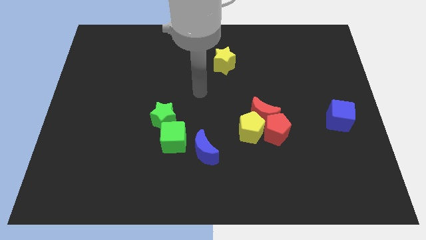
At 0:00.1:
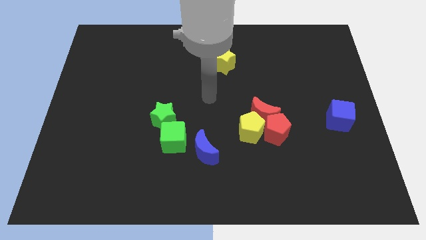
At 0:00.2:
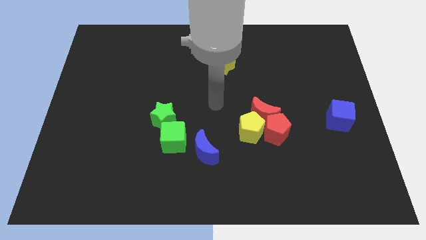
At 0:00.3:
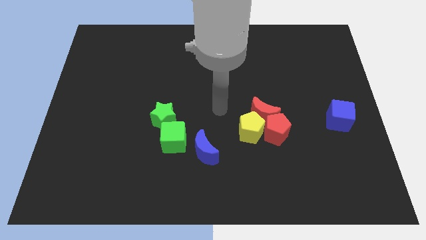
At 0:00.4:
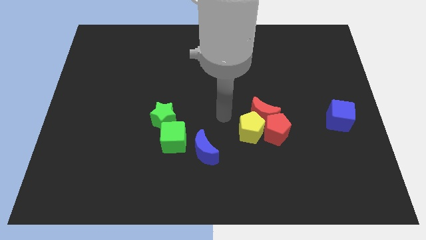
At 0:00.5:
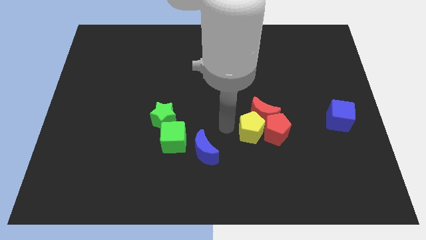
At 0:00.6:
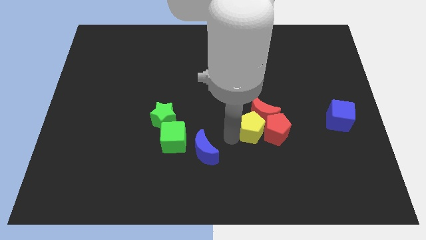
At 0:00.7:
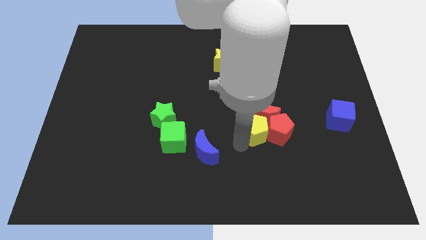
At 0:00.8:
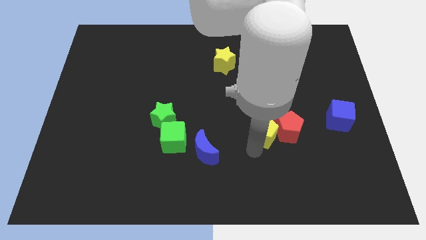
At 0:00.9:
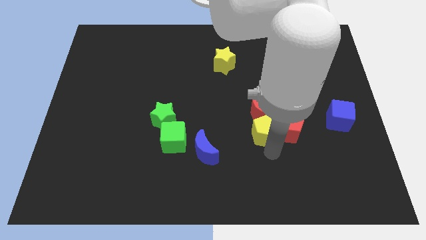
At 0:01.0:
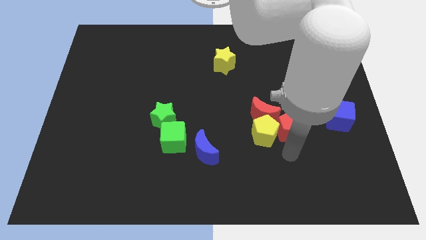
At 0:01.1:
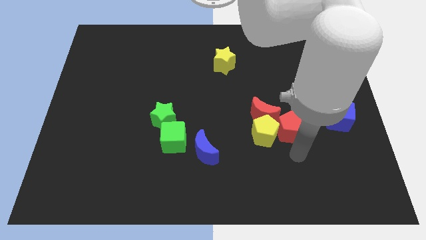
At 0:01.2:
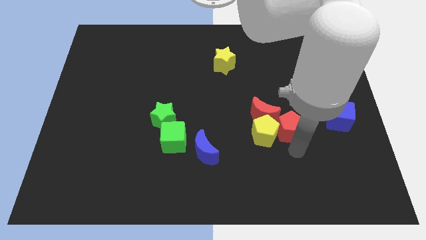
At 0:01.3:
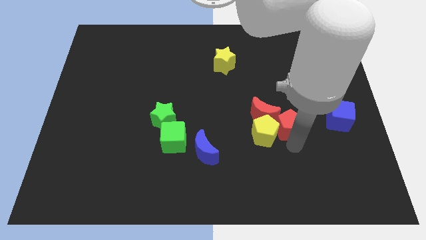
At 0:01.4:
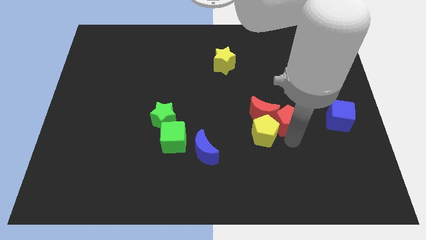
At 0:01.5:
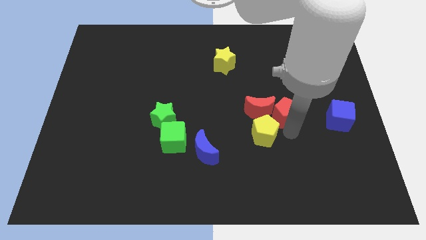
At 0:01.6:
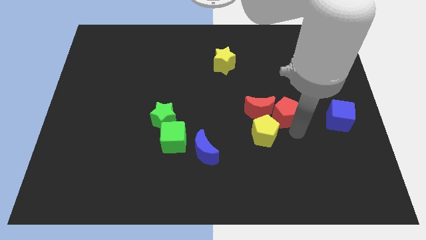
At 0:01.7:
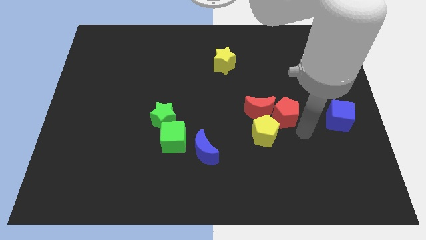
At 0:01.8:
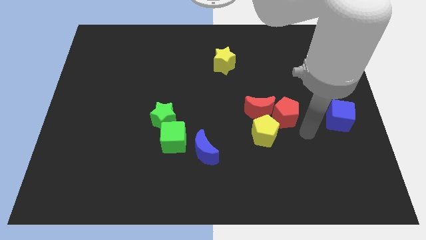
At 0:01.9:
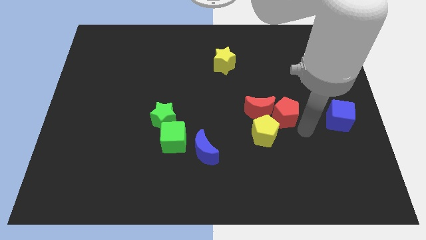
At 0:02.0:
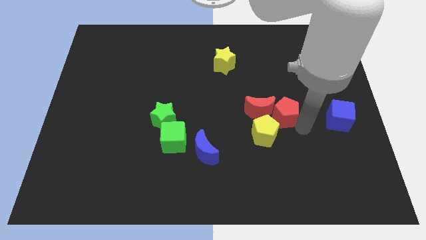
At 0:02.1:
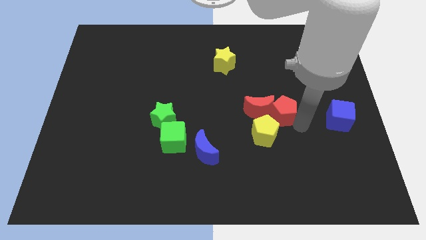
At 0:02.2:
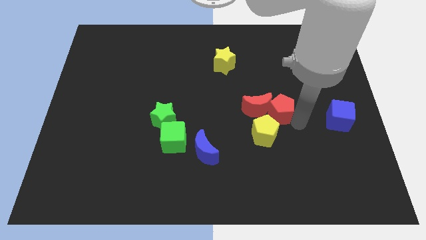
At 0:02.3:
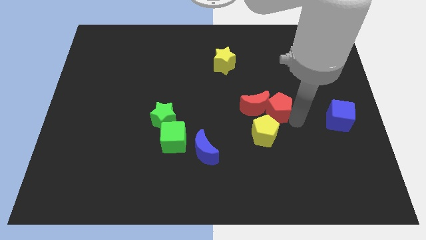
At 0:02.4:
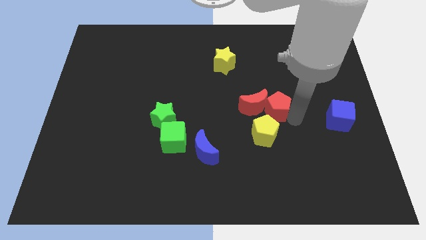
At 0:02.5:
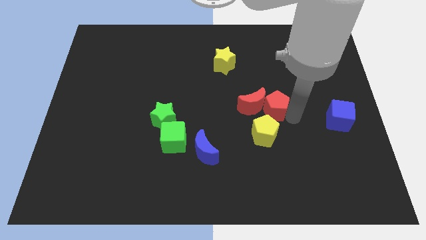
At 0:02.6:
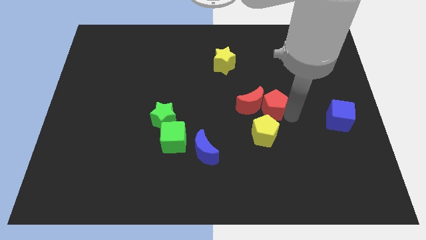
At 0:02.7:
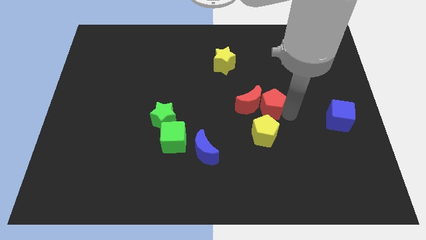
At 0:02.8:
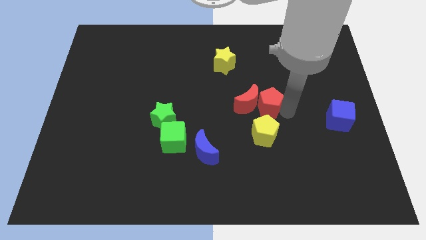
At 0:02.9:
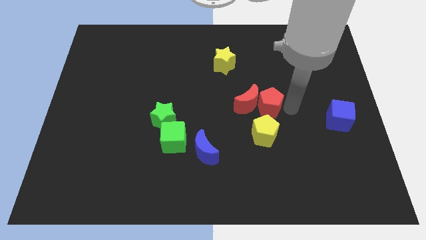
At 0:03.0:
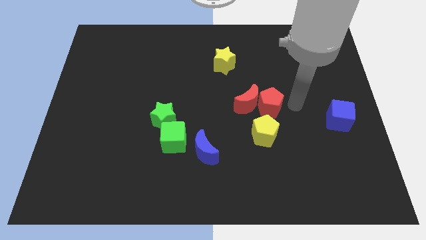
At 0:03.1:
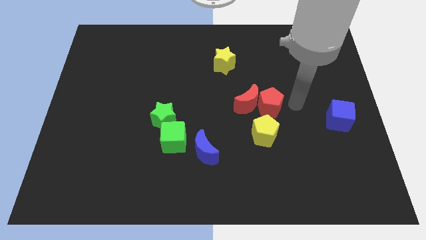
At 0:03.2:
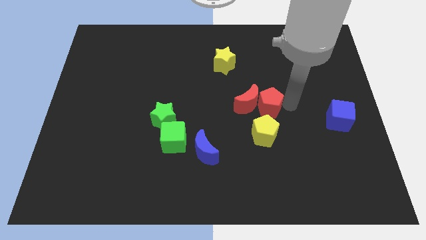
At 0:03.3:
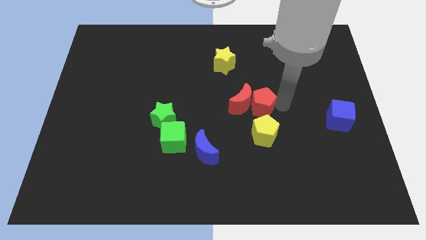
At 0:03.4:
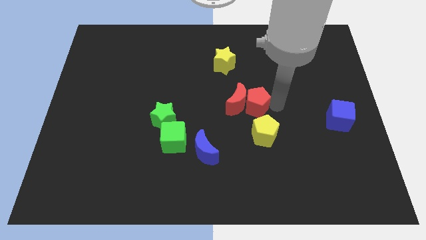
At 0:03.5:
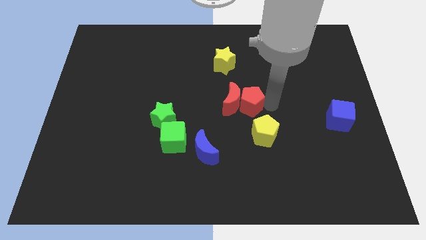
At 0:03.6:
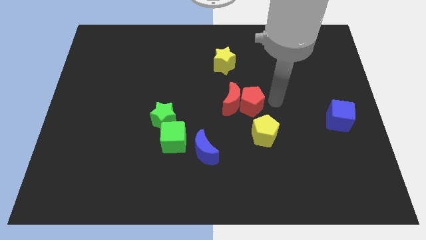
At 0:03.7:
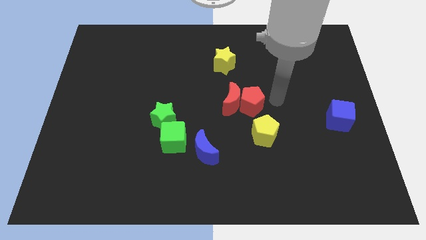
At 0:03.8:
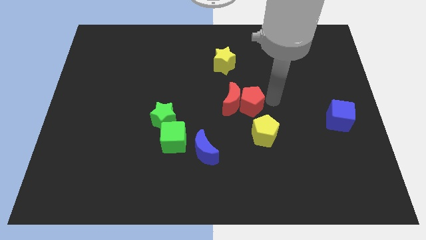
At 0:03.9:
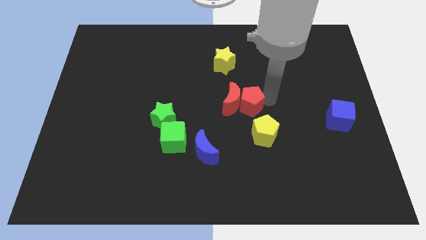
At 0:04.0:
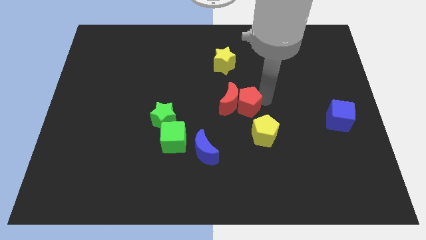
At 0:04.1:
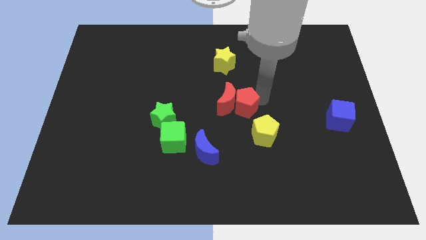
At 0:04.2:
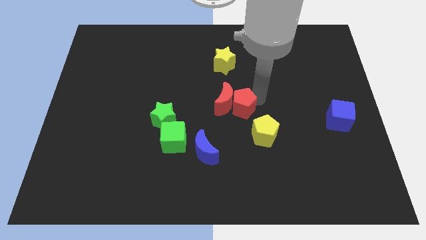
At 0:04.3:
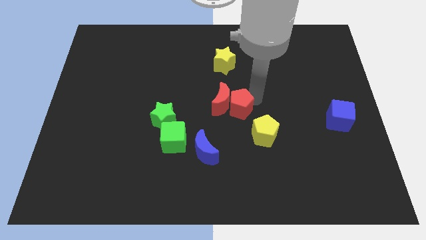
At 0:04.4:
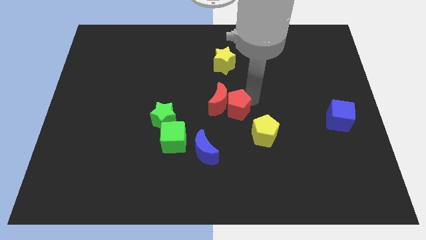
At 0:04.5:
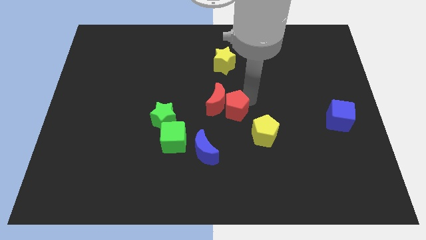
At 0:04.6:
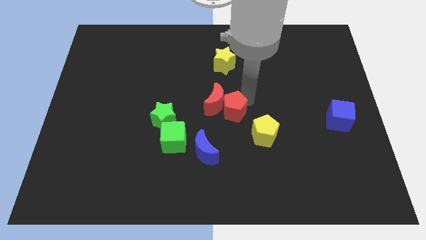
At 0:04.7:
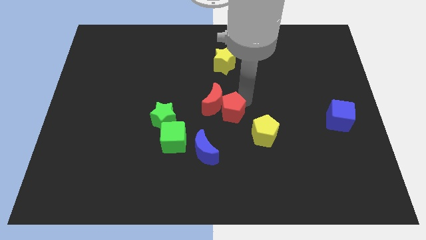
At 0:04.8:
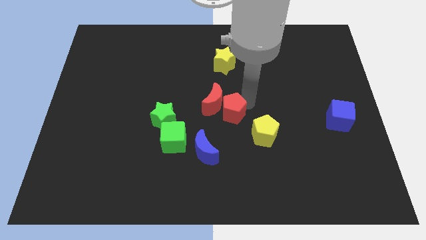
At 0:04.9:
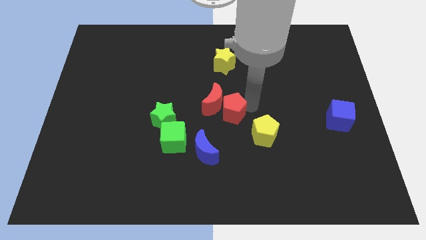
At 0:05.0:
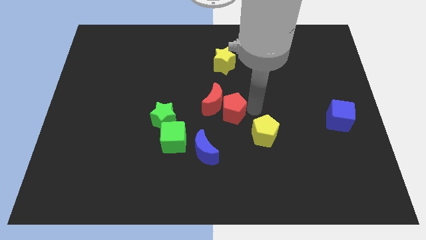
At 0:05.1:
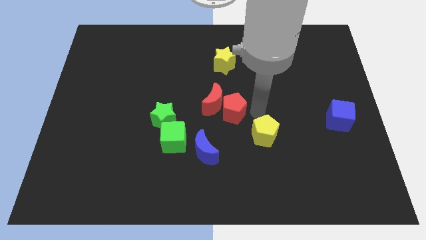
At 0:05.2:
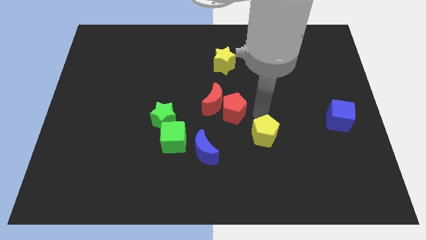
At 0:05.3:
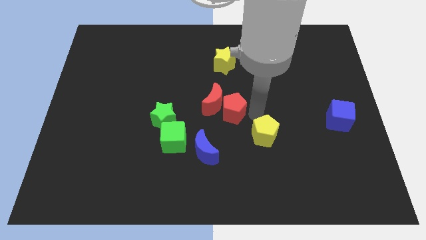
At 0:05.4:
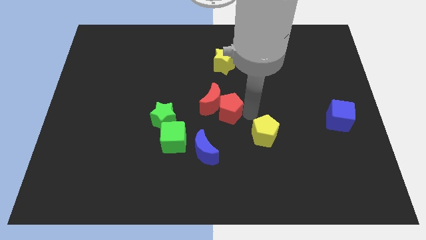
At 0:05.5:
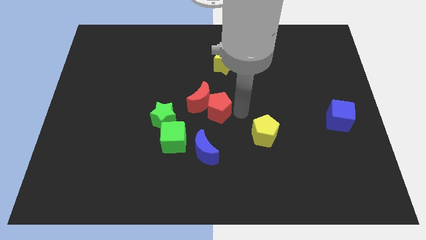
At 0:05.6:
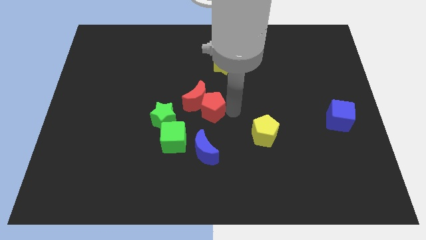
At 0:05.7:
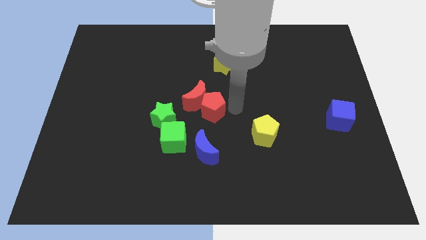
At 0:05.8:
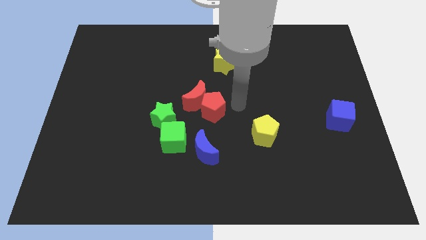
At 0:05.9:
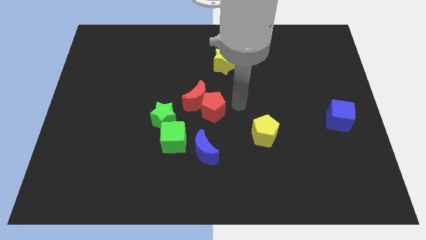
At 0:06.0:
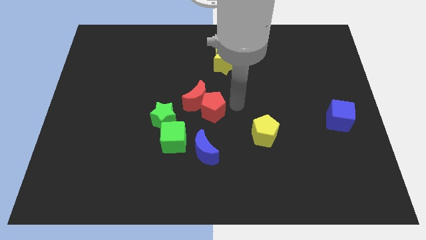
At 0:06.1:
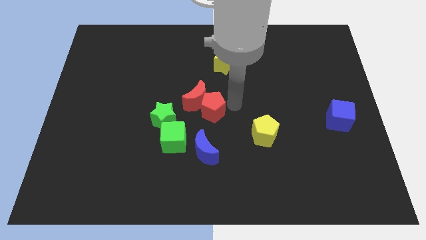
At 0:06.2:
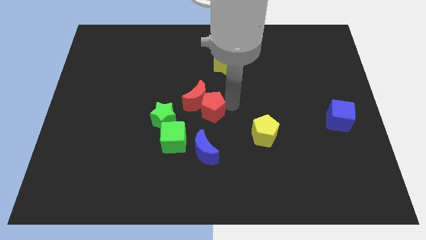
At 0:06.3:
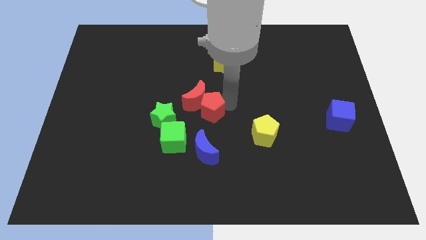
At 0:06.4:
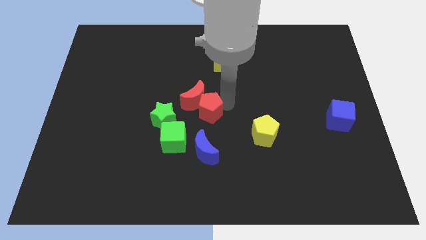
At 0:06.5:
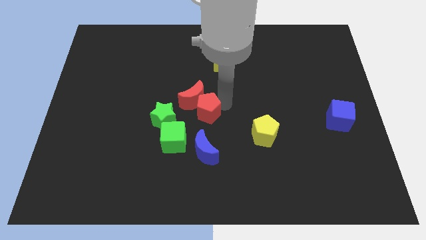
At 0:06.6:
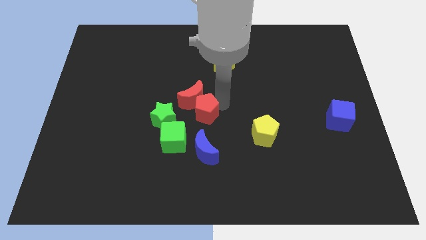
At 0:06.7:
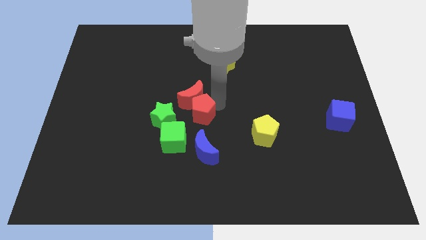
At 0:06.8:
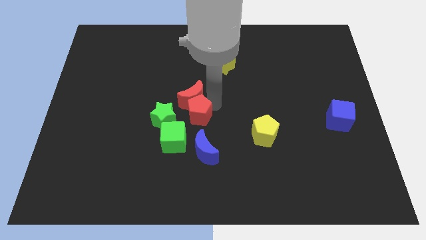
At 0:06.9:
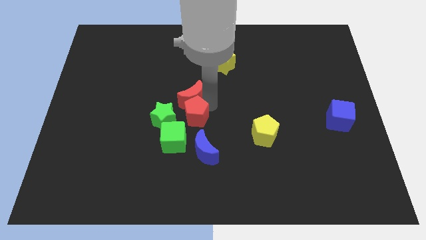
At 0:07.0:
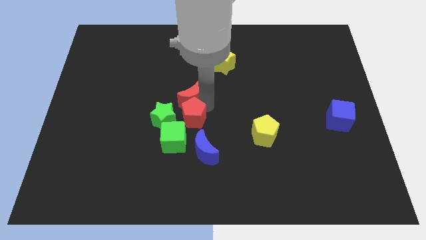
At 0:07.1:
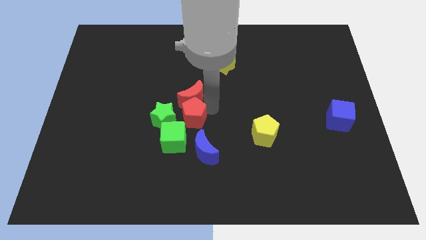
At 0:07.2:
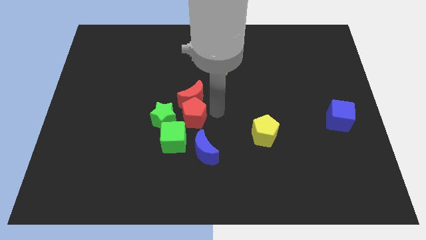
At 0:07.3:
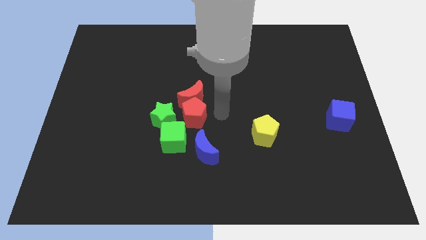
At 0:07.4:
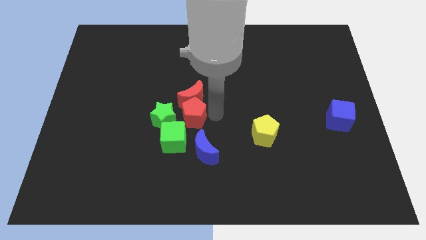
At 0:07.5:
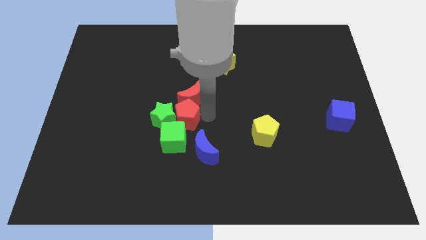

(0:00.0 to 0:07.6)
slide the red pentagon next to the green star
